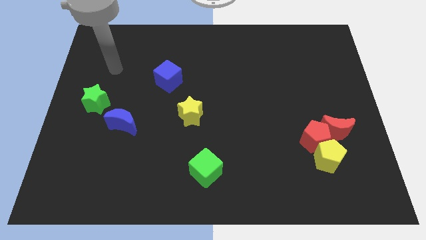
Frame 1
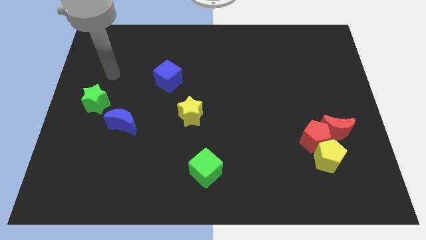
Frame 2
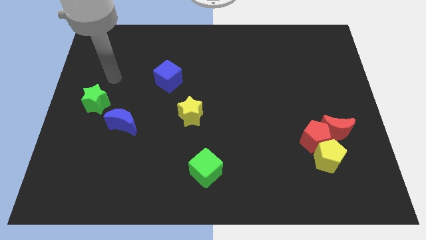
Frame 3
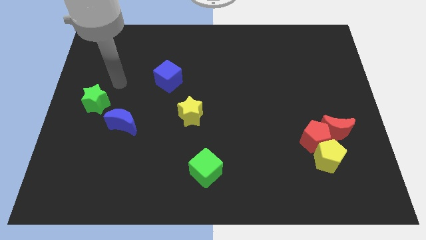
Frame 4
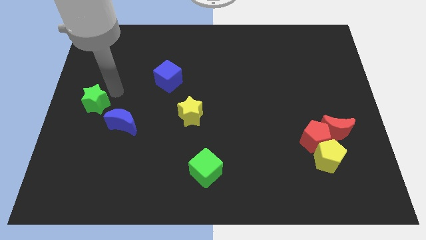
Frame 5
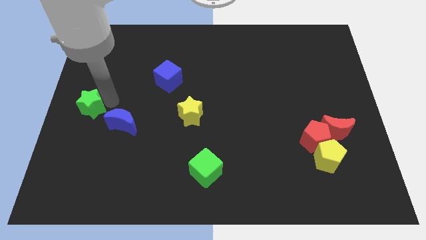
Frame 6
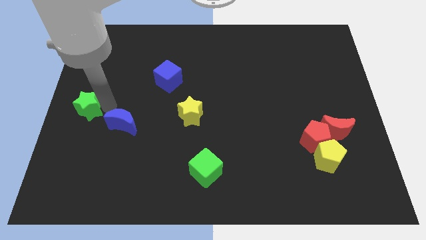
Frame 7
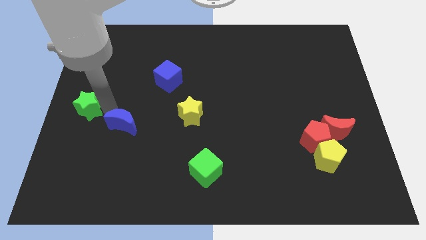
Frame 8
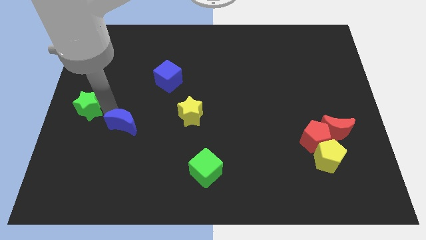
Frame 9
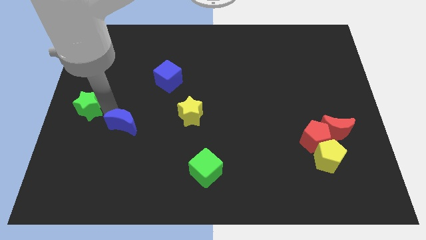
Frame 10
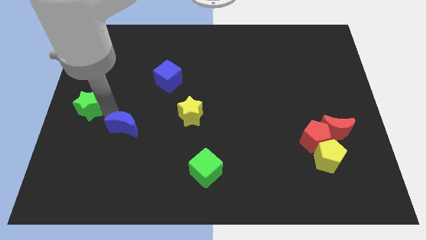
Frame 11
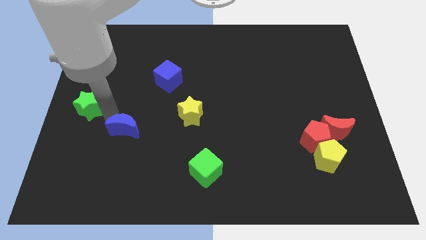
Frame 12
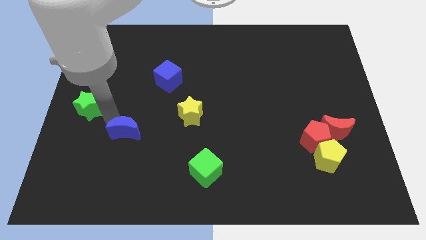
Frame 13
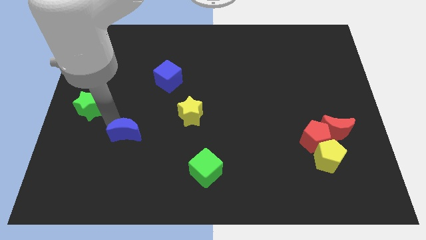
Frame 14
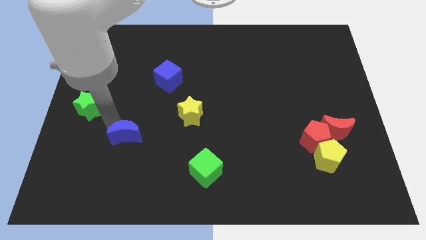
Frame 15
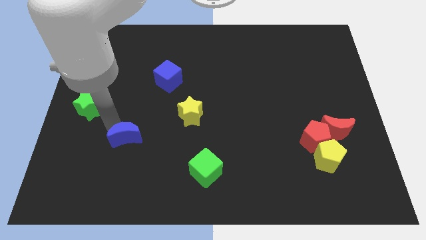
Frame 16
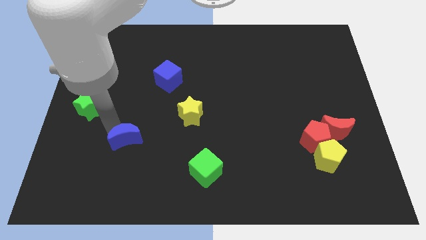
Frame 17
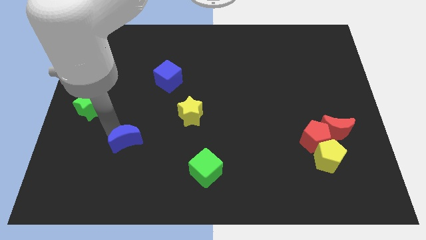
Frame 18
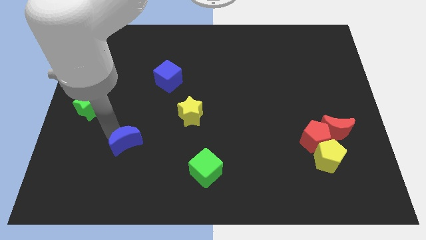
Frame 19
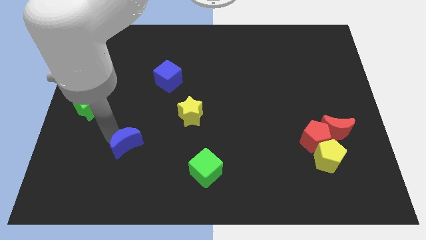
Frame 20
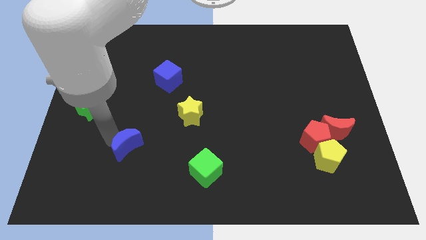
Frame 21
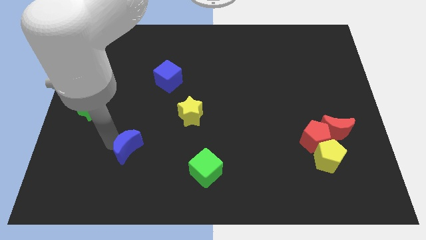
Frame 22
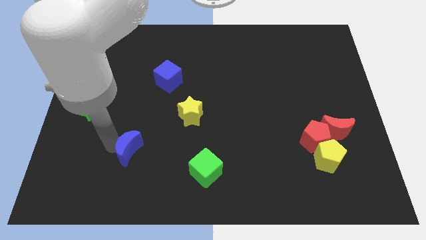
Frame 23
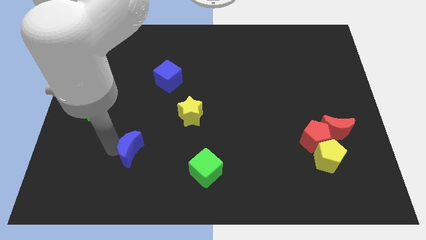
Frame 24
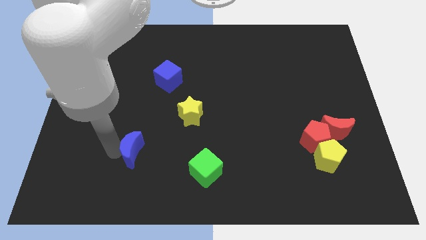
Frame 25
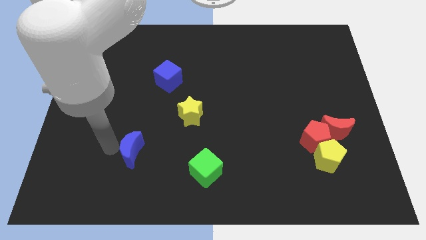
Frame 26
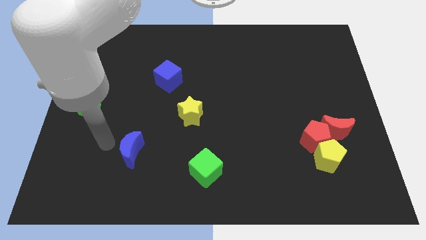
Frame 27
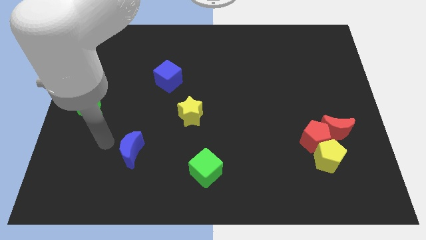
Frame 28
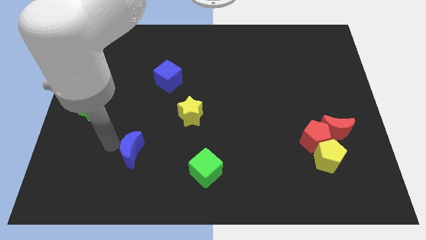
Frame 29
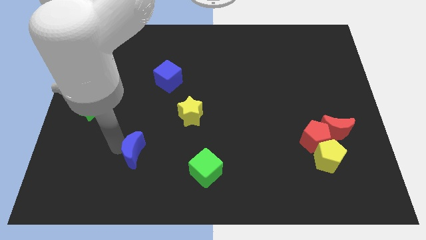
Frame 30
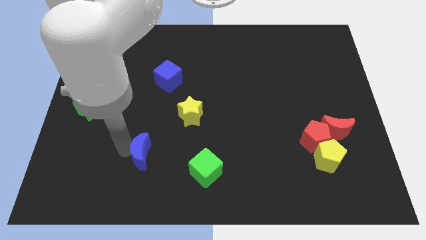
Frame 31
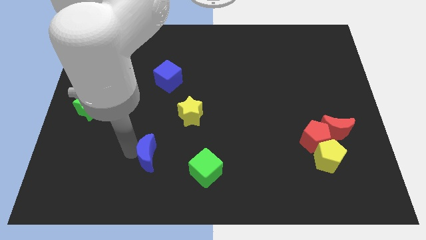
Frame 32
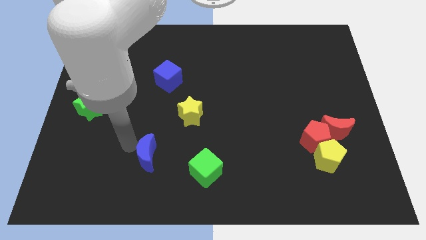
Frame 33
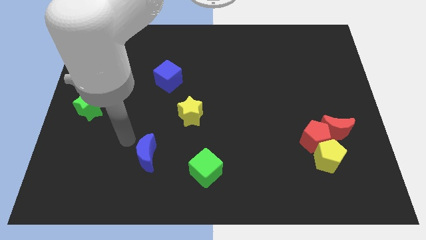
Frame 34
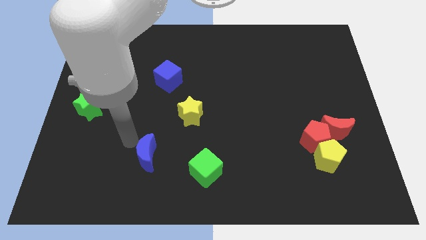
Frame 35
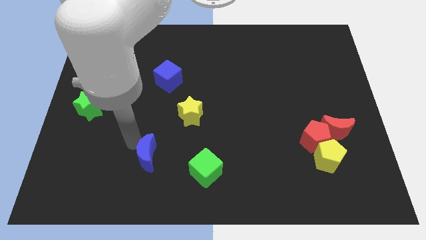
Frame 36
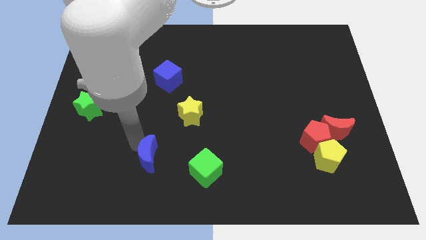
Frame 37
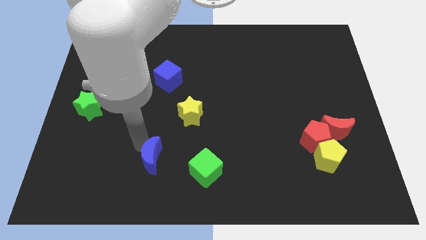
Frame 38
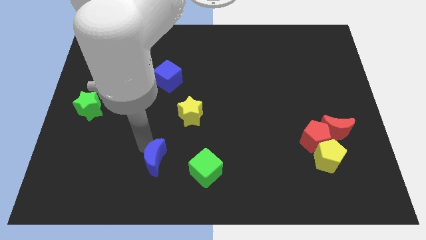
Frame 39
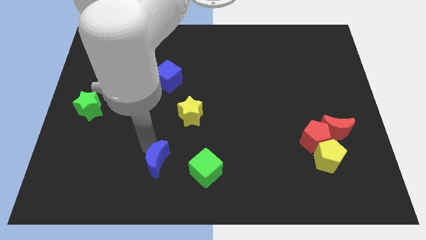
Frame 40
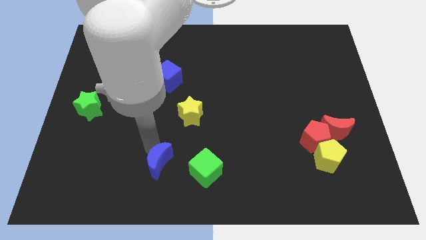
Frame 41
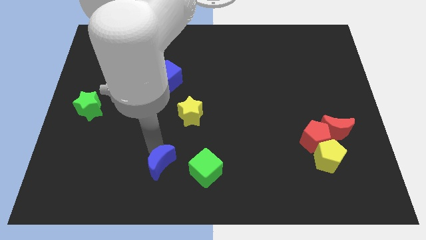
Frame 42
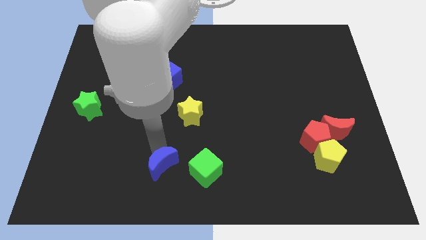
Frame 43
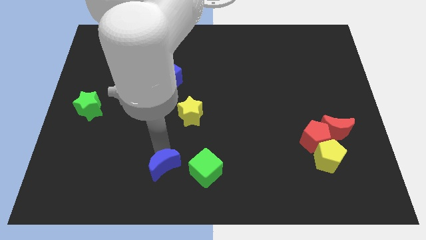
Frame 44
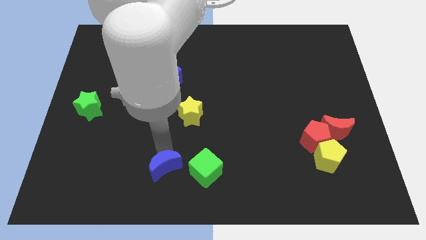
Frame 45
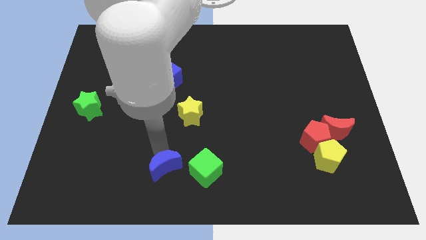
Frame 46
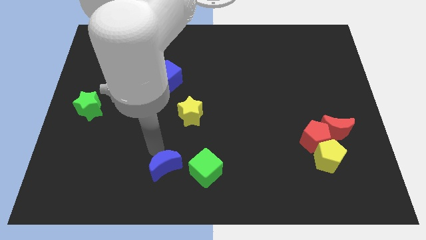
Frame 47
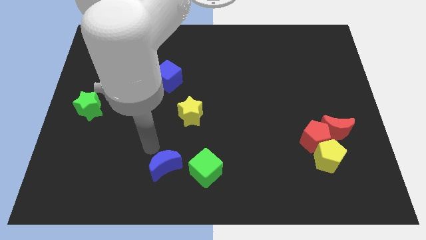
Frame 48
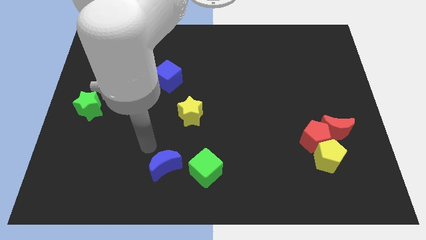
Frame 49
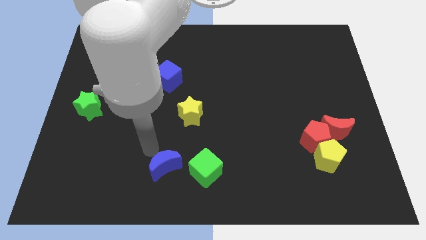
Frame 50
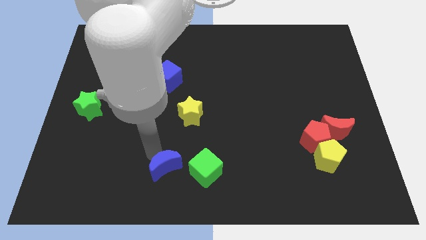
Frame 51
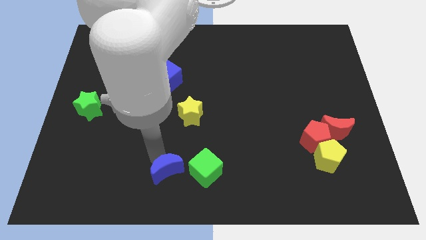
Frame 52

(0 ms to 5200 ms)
slide the blue moon to the bottom

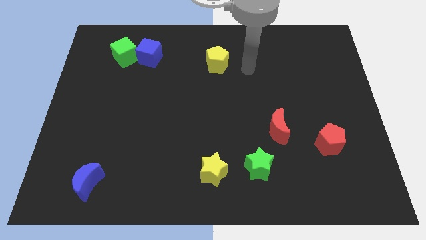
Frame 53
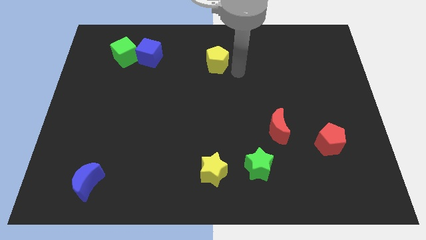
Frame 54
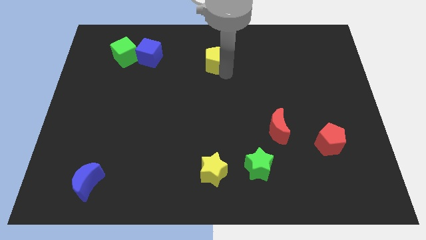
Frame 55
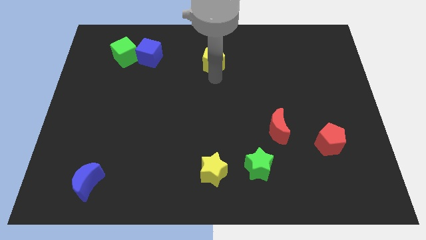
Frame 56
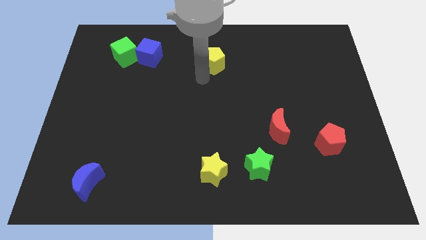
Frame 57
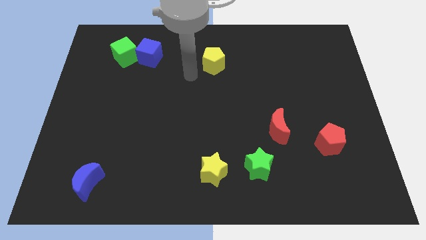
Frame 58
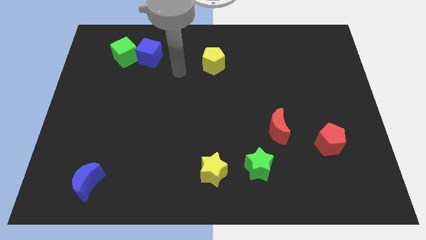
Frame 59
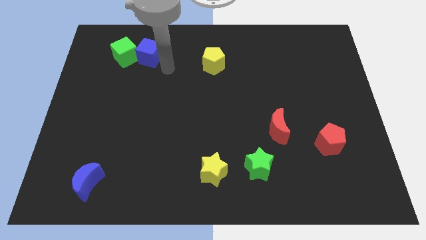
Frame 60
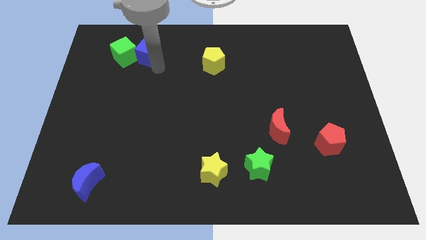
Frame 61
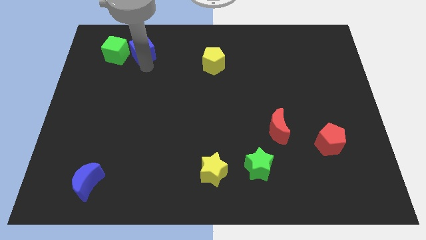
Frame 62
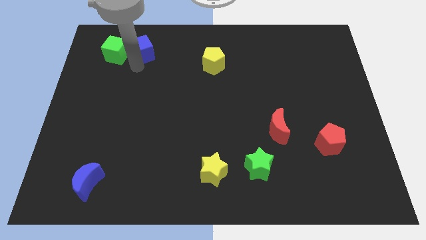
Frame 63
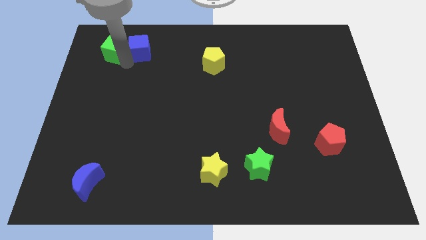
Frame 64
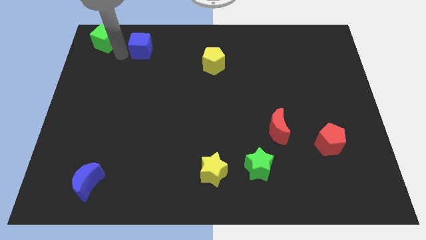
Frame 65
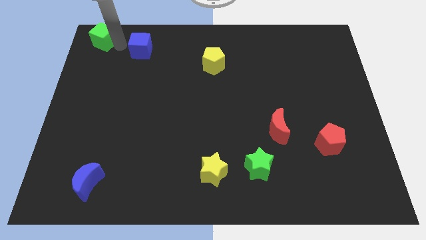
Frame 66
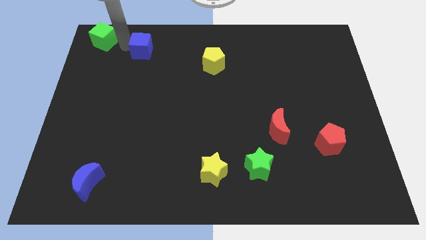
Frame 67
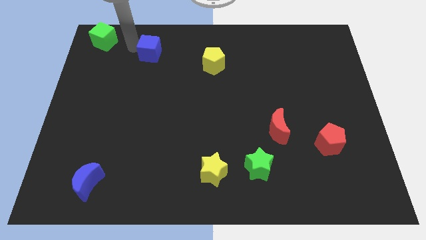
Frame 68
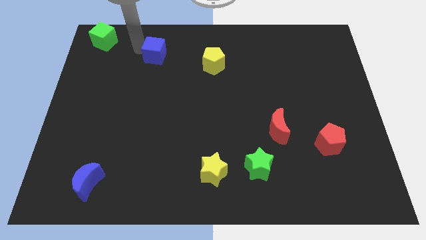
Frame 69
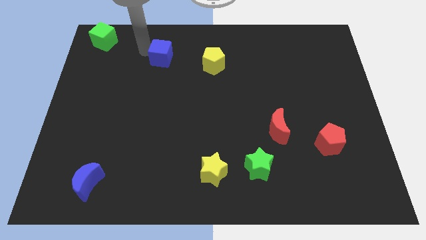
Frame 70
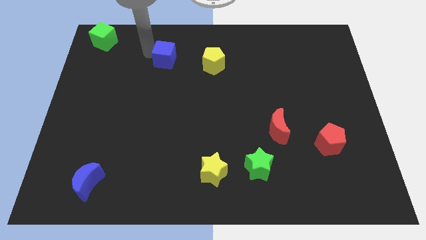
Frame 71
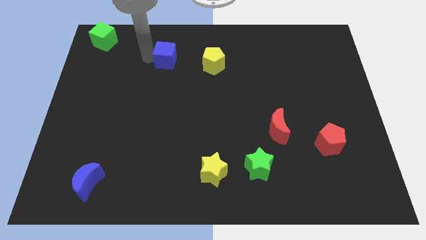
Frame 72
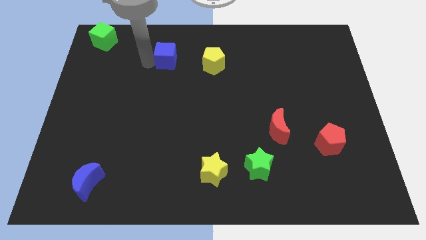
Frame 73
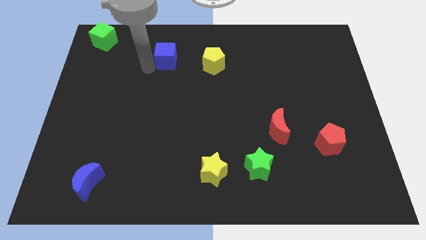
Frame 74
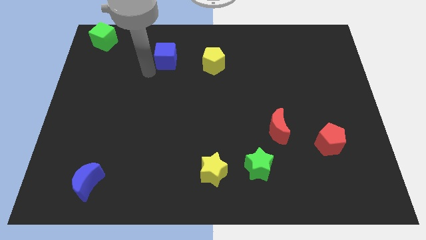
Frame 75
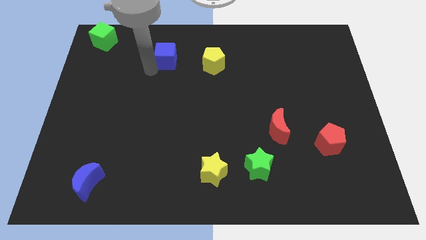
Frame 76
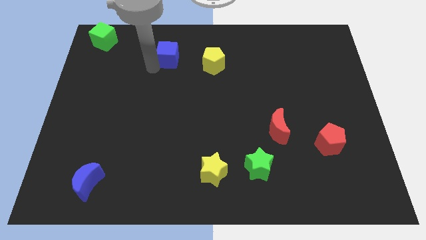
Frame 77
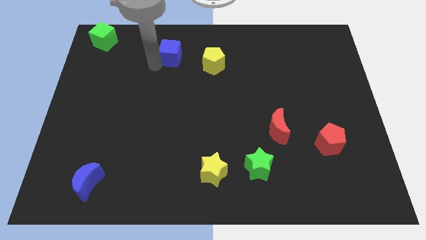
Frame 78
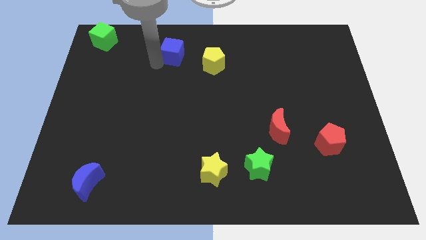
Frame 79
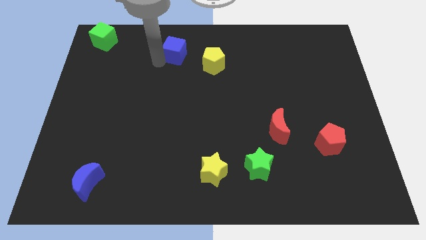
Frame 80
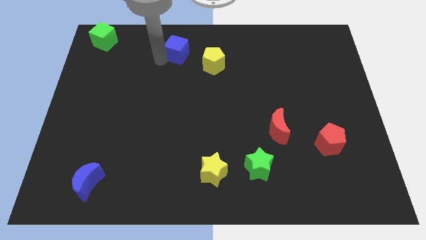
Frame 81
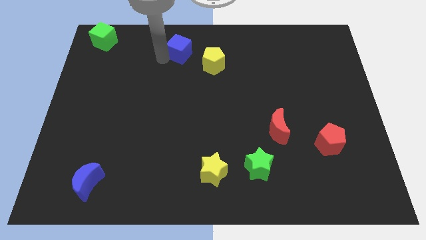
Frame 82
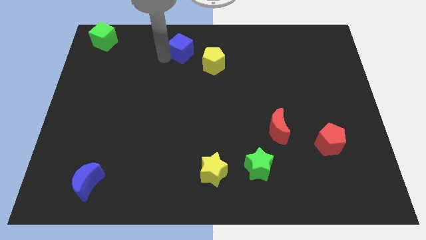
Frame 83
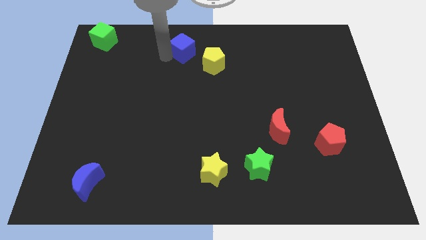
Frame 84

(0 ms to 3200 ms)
push the blue cube to the top side
